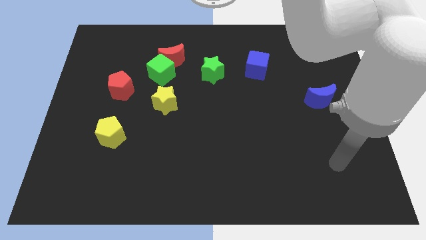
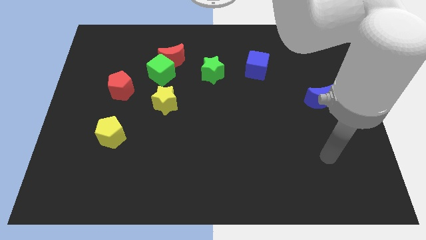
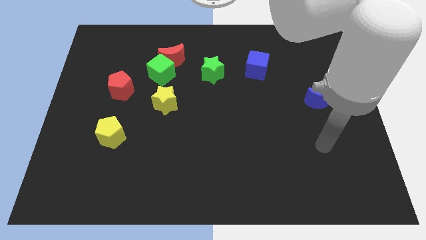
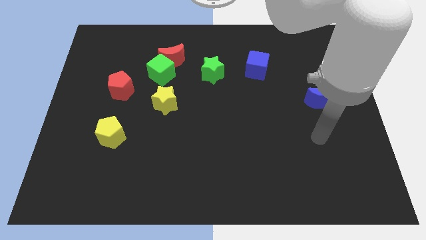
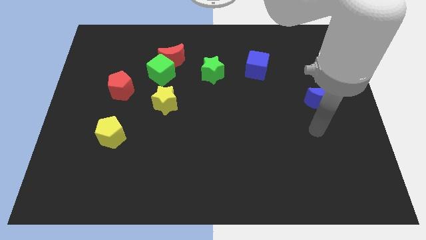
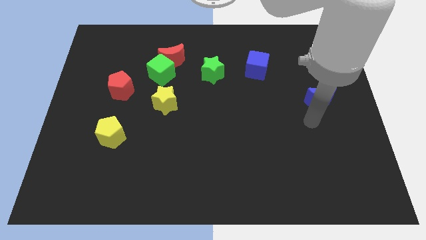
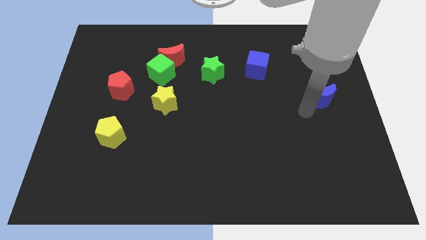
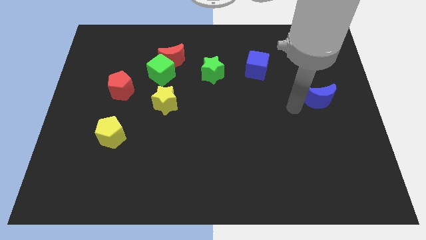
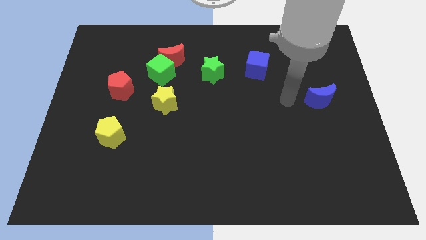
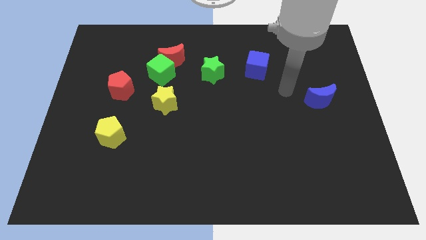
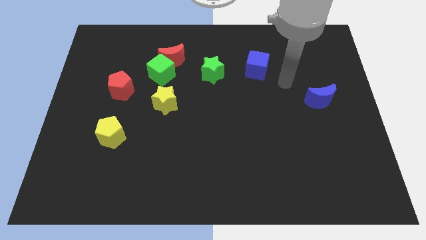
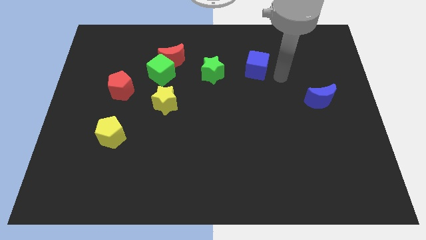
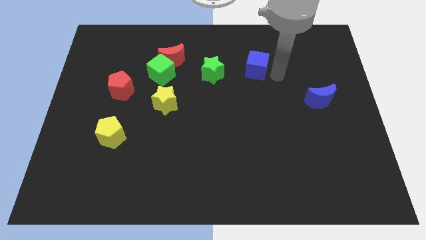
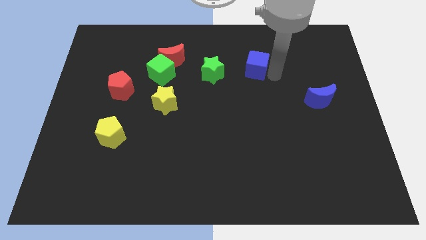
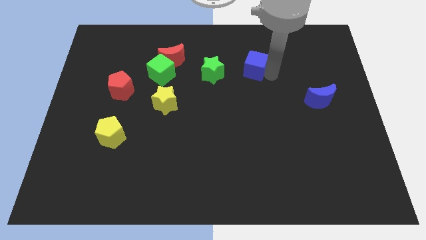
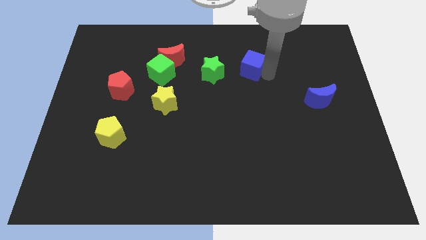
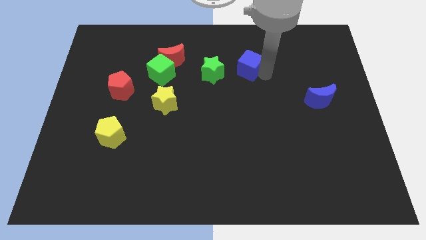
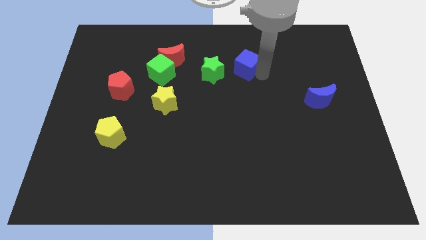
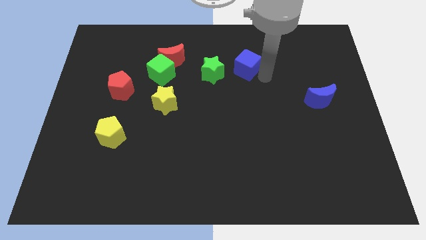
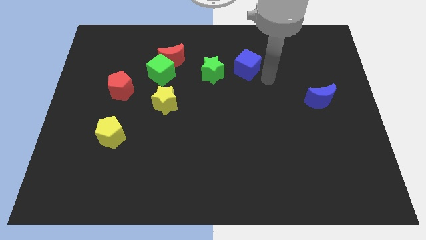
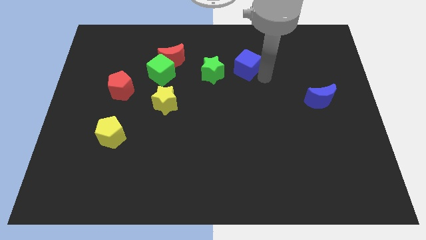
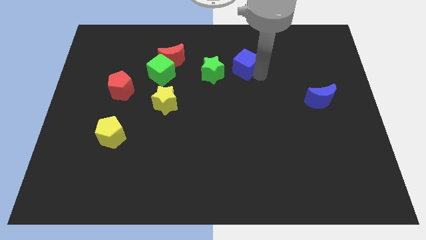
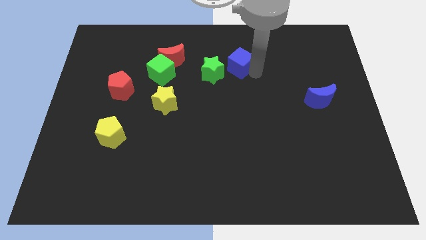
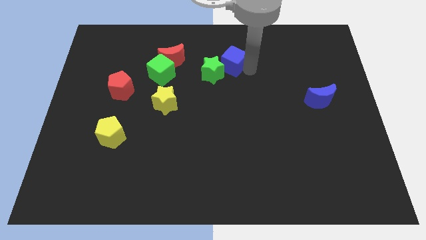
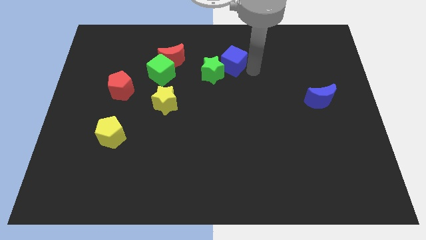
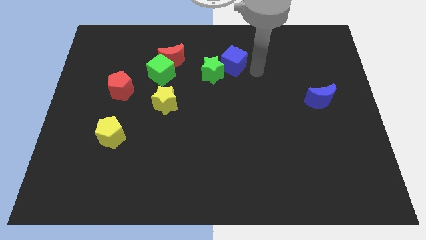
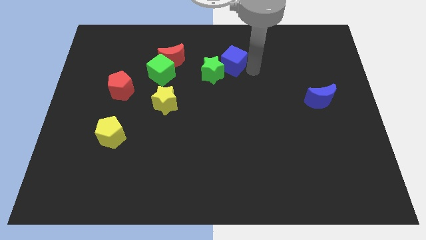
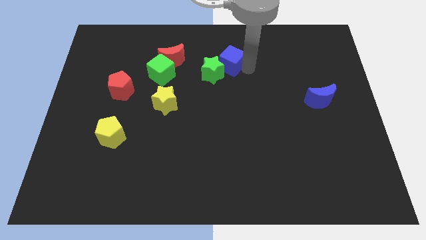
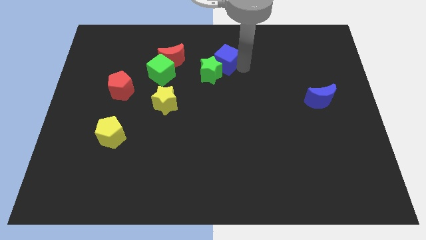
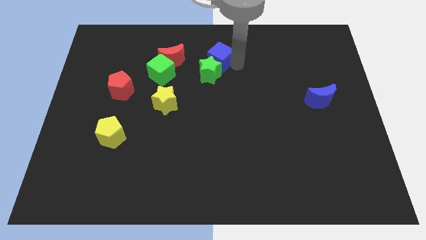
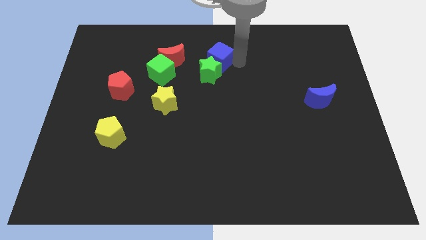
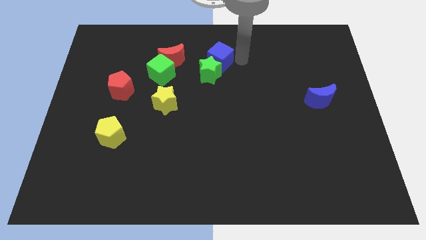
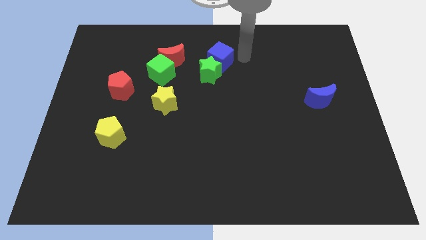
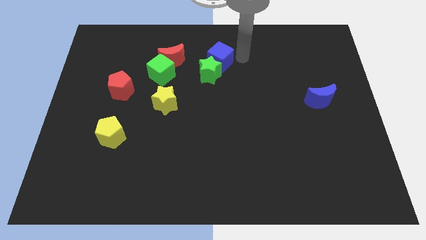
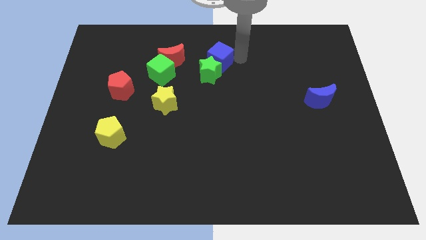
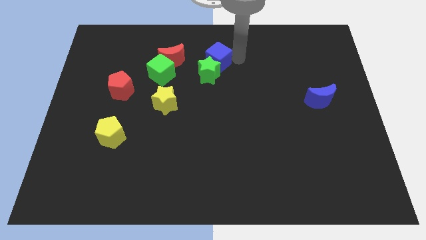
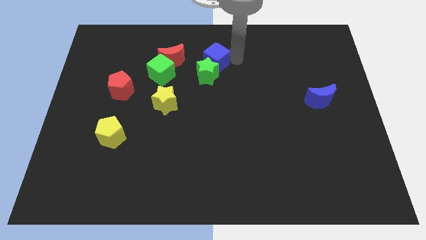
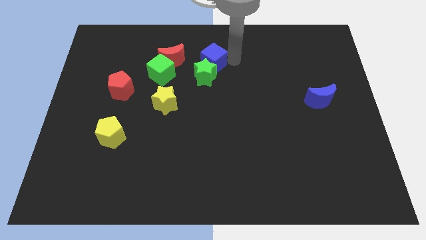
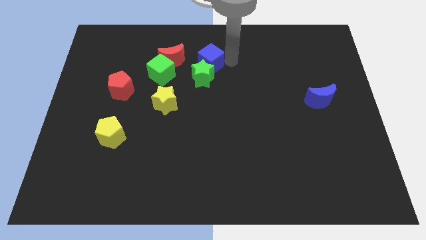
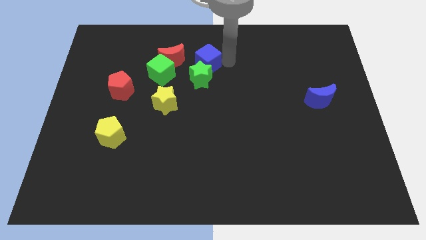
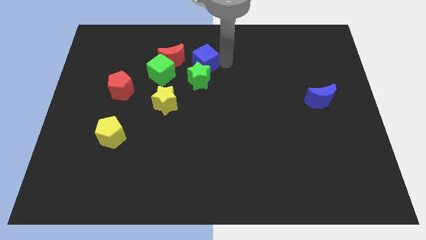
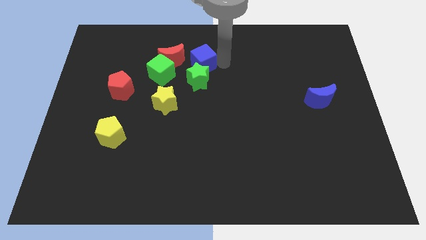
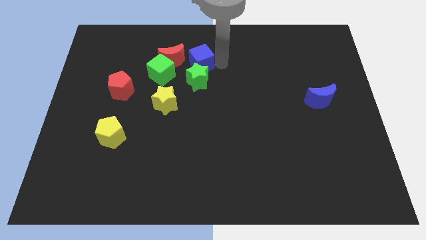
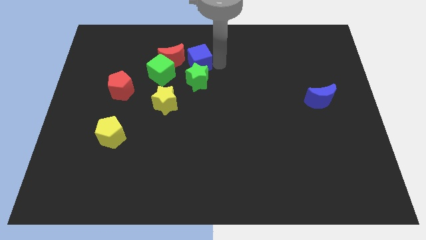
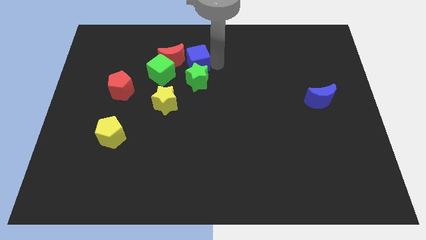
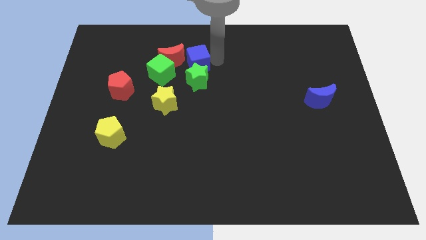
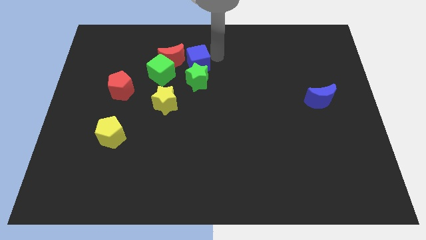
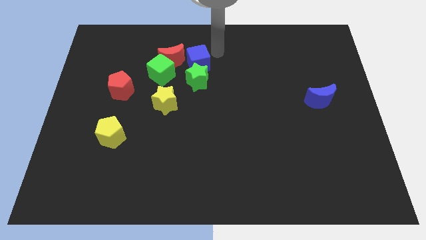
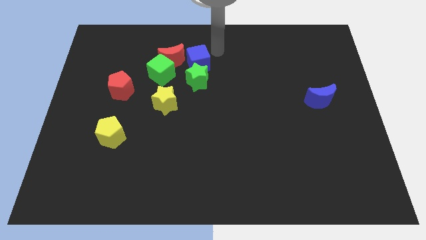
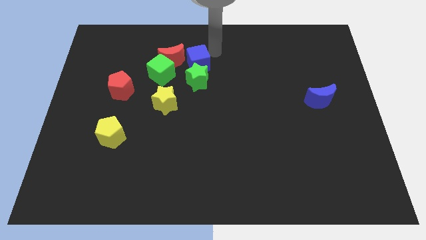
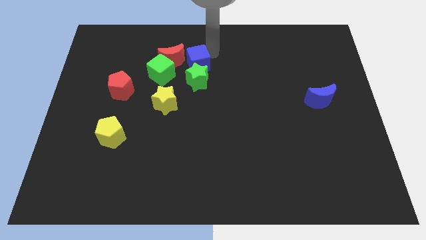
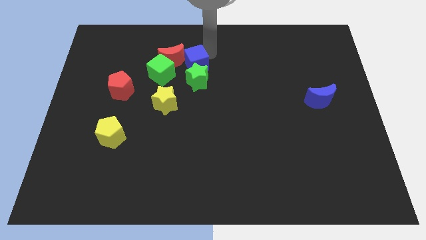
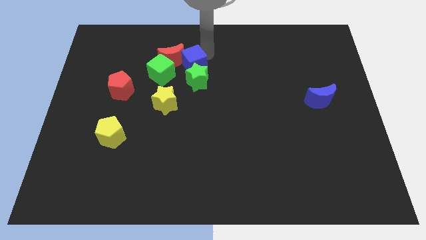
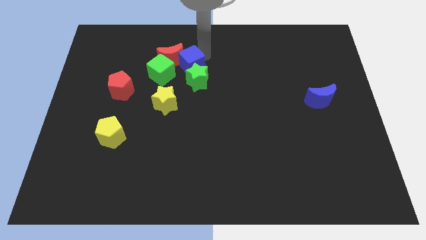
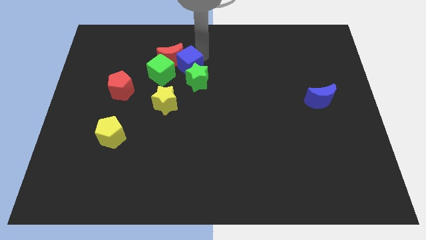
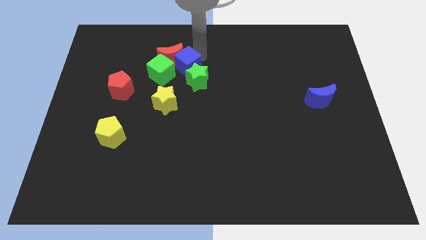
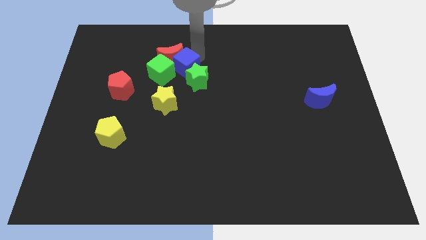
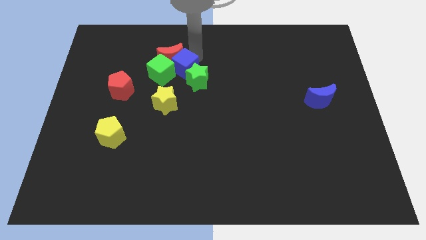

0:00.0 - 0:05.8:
slide the blue cube towards the green cube

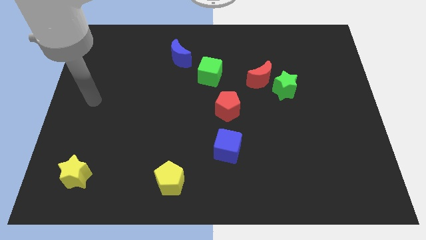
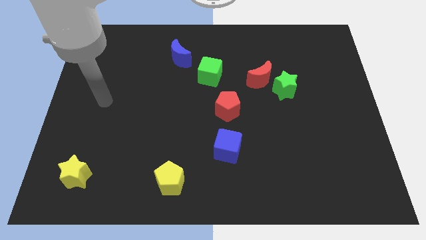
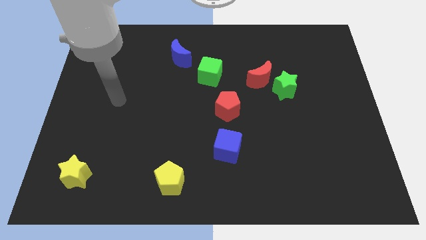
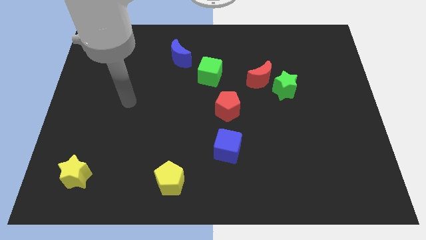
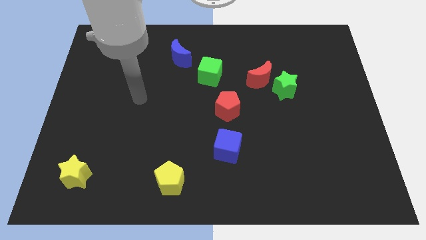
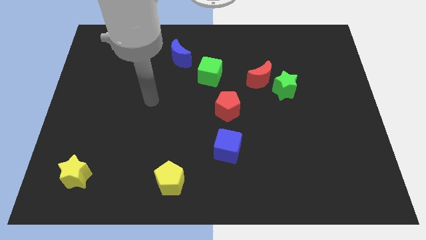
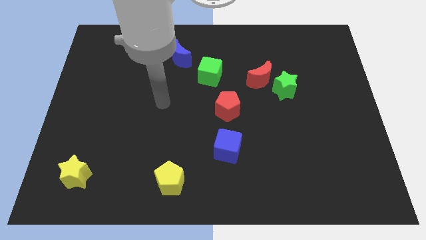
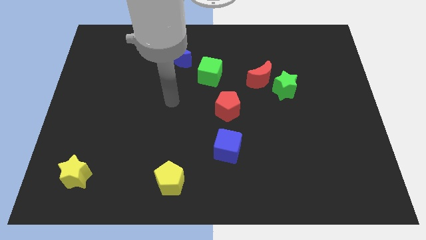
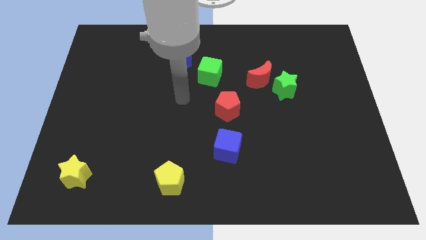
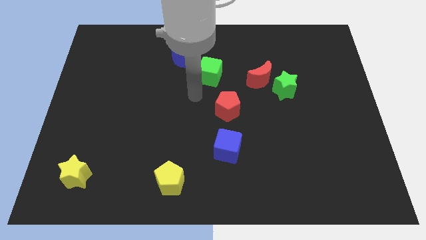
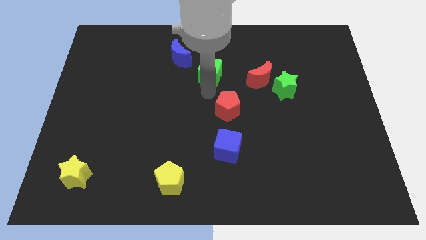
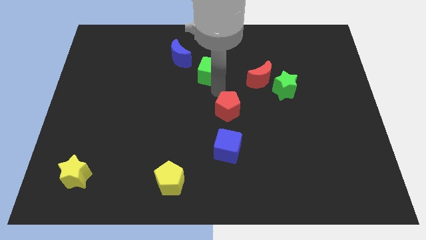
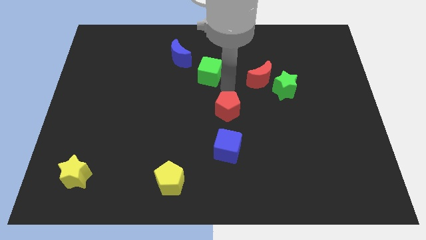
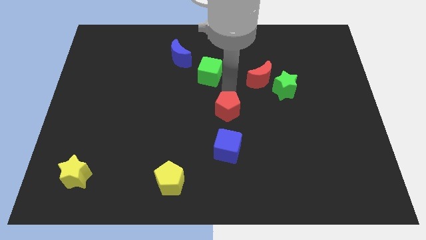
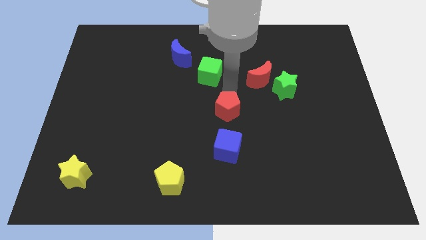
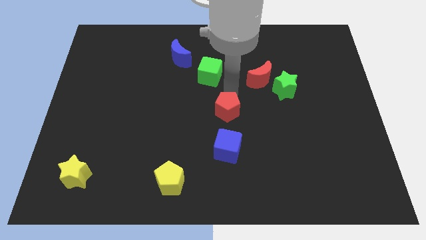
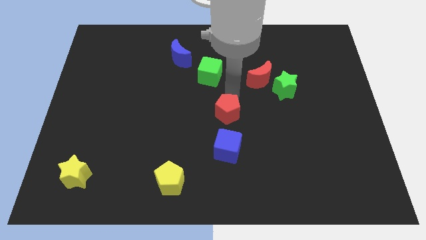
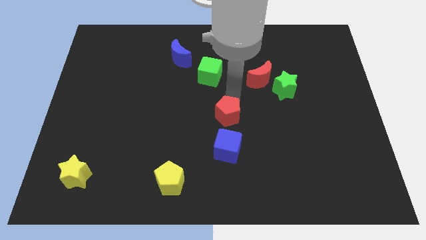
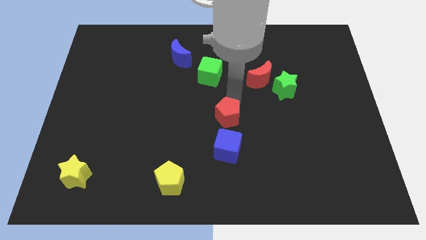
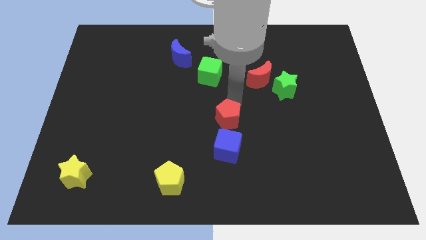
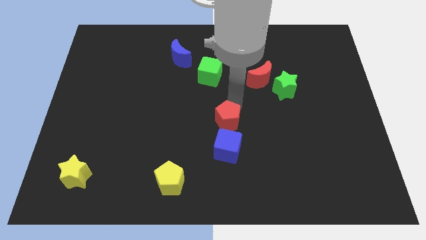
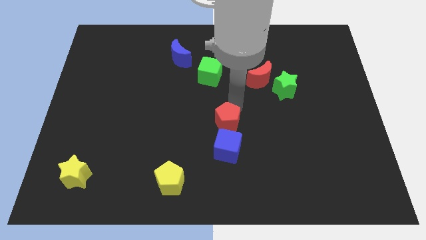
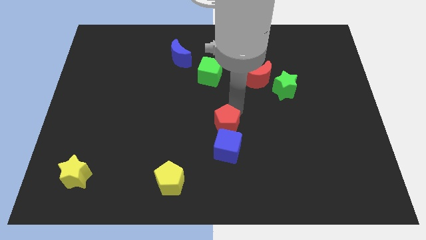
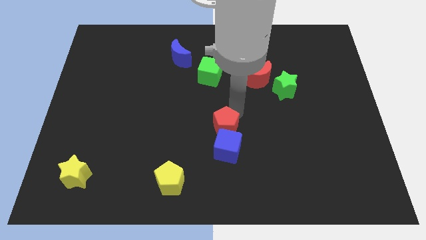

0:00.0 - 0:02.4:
put the red pentagon to the blue cube
